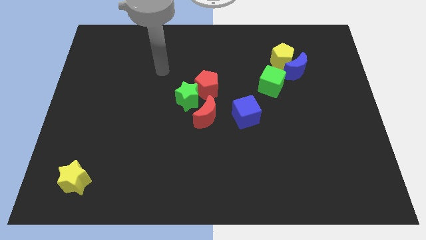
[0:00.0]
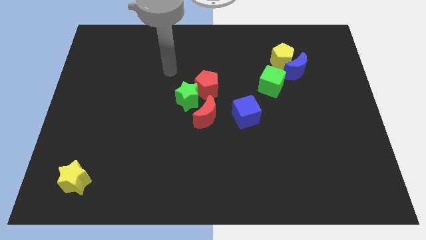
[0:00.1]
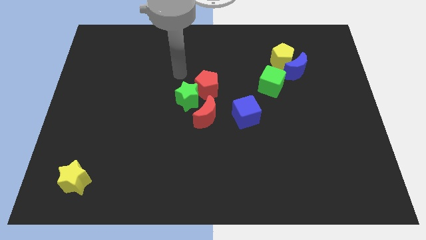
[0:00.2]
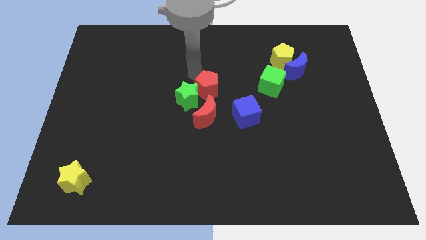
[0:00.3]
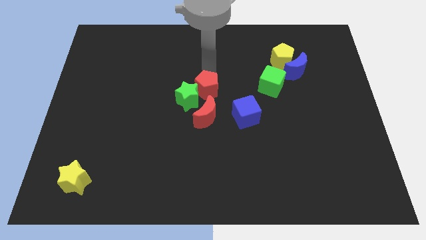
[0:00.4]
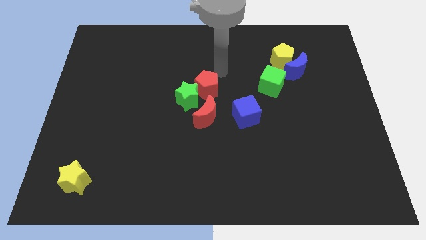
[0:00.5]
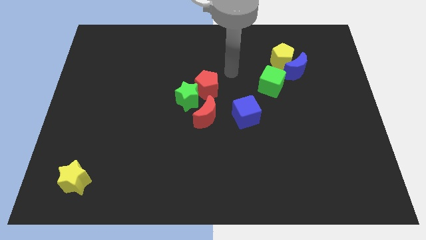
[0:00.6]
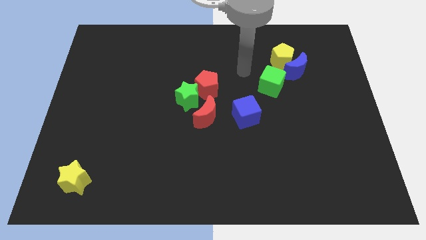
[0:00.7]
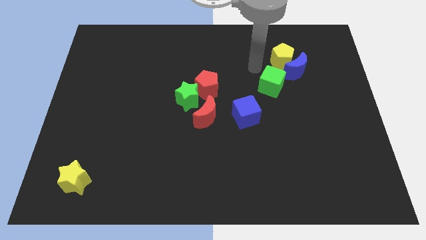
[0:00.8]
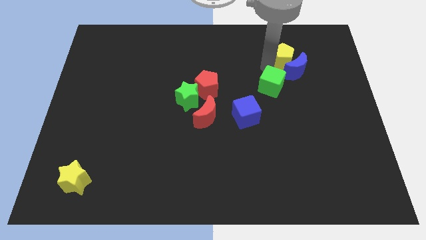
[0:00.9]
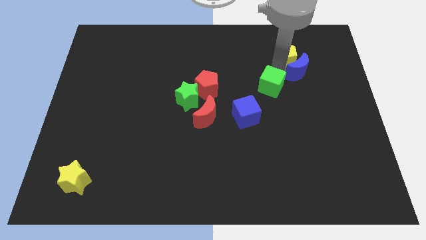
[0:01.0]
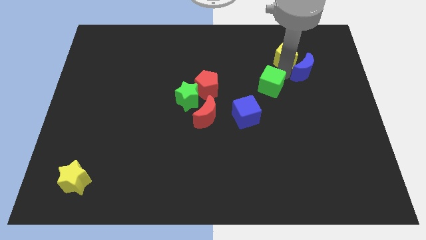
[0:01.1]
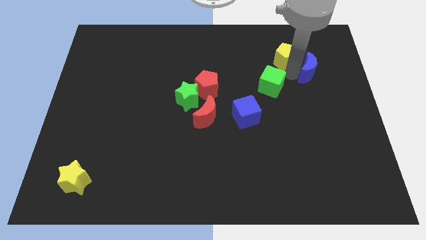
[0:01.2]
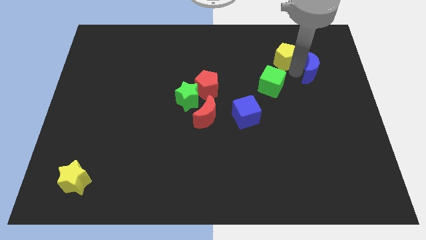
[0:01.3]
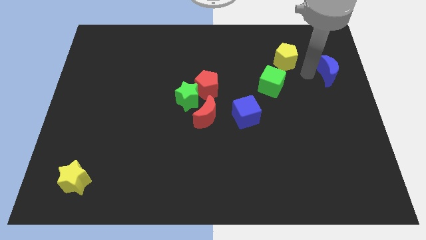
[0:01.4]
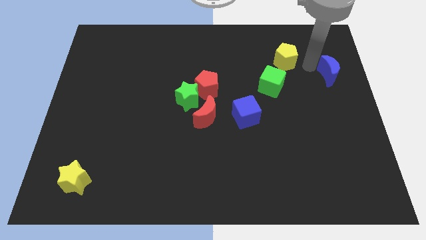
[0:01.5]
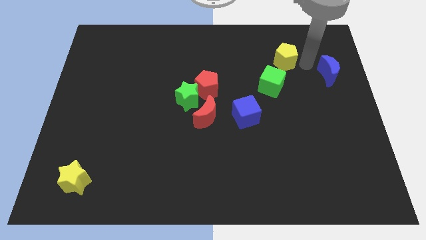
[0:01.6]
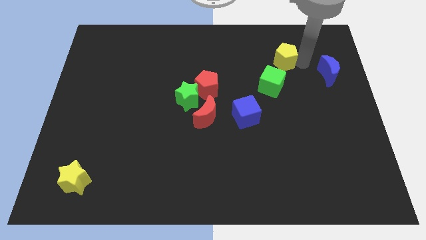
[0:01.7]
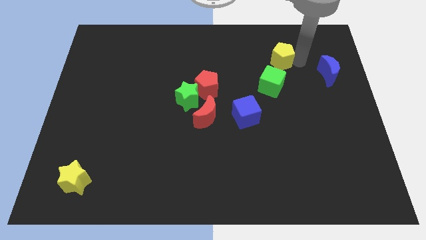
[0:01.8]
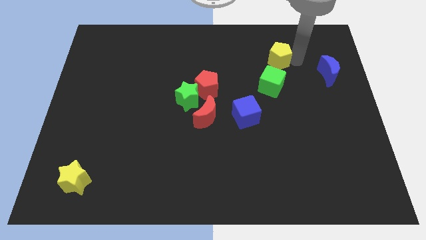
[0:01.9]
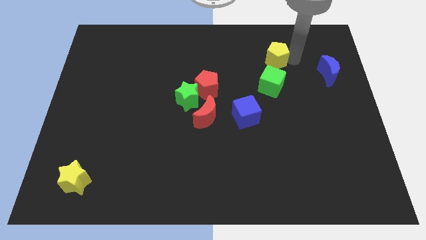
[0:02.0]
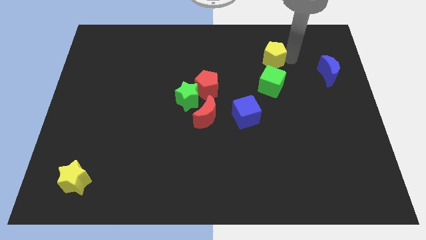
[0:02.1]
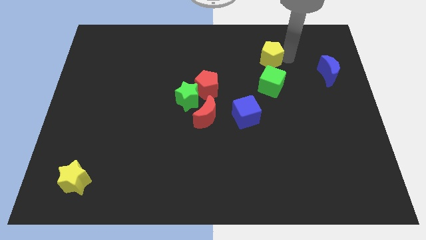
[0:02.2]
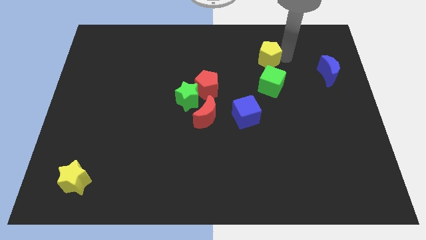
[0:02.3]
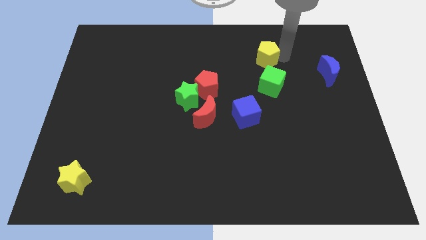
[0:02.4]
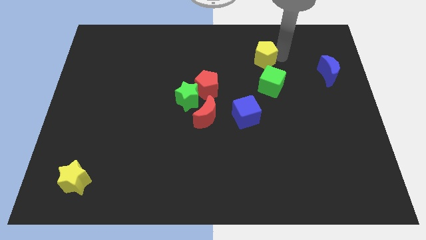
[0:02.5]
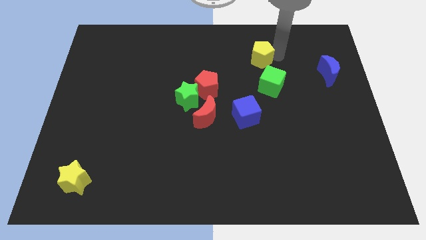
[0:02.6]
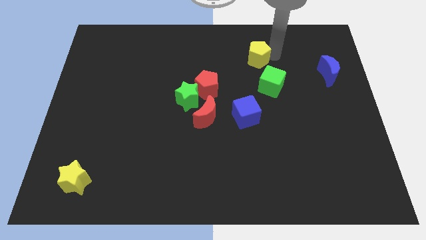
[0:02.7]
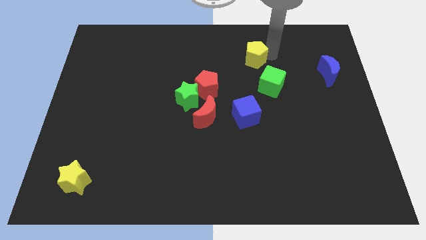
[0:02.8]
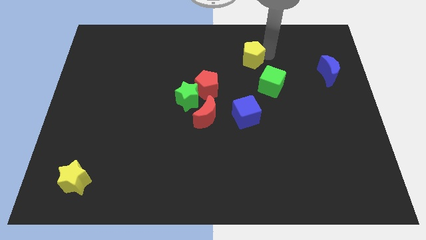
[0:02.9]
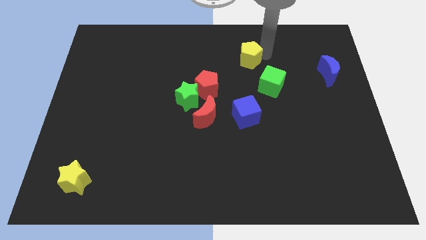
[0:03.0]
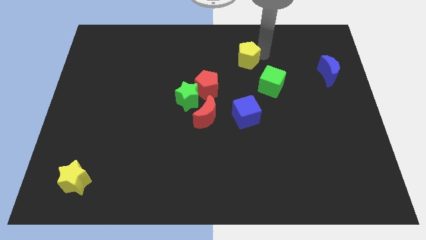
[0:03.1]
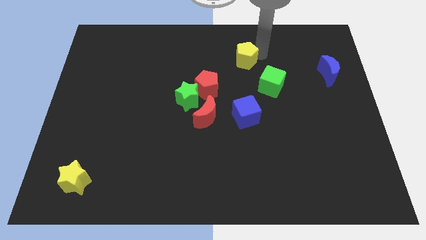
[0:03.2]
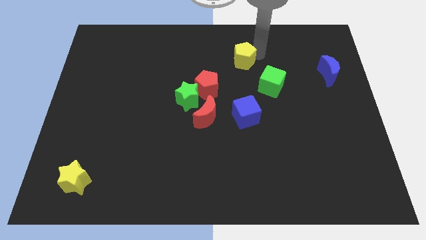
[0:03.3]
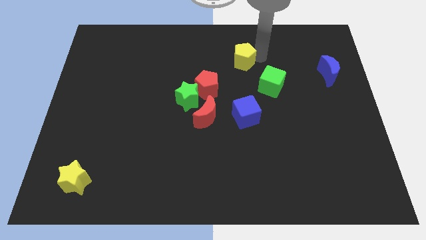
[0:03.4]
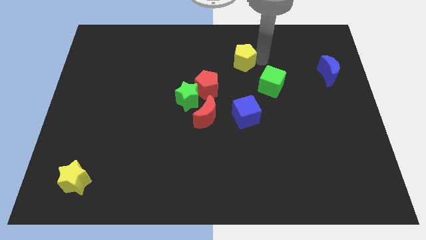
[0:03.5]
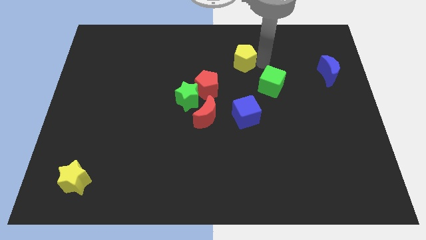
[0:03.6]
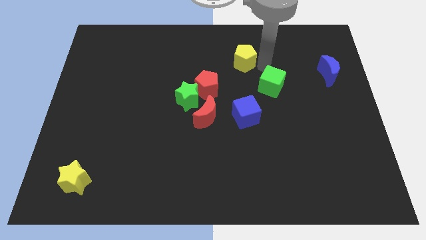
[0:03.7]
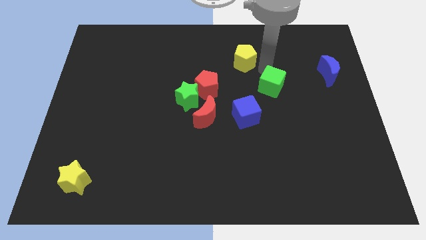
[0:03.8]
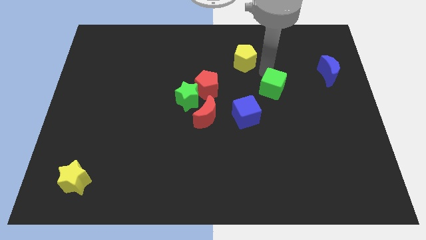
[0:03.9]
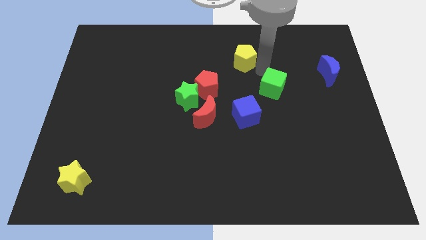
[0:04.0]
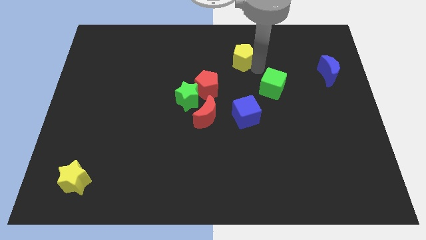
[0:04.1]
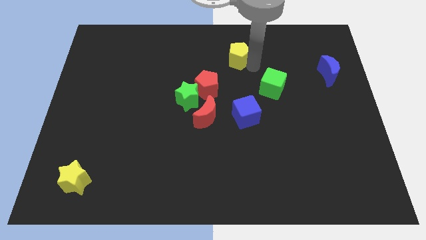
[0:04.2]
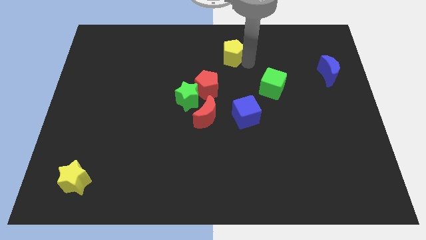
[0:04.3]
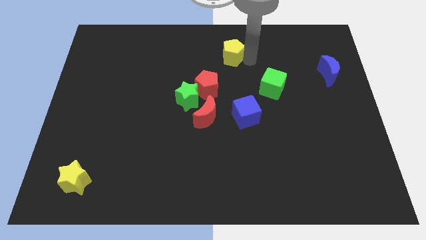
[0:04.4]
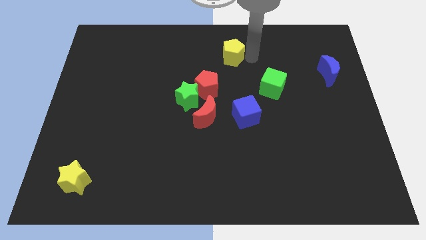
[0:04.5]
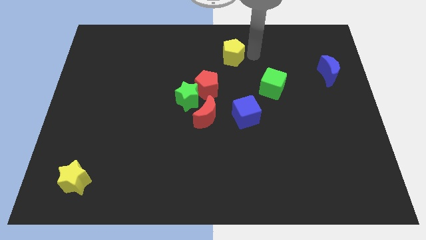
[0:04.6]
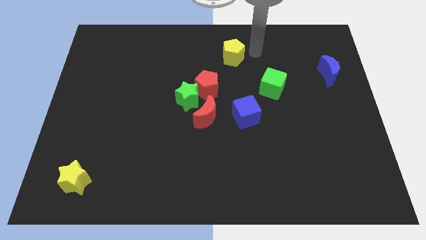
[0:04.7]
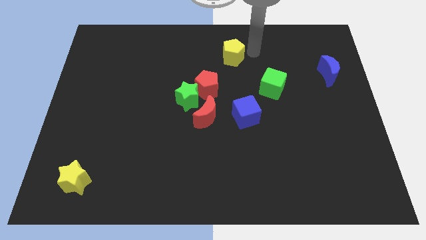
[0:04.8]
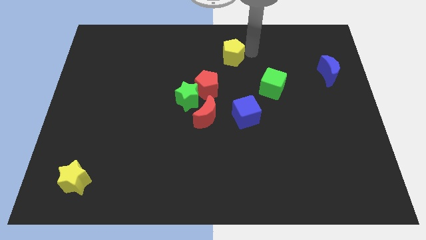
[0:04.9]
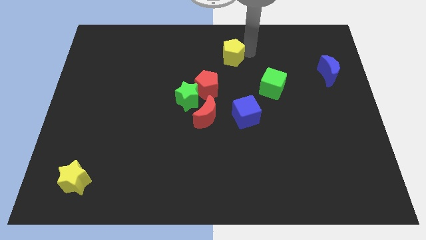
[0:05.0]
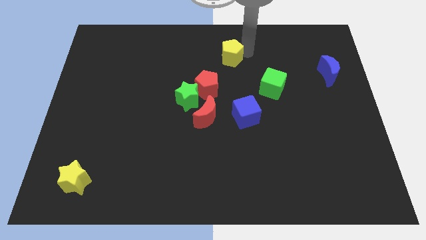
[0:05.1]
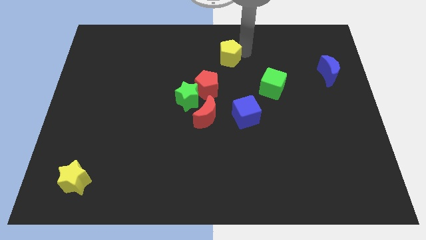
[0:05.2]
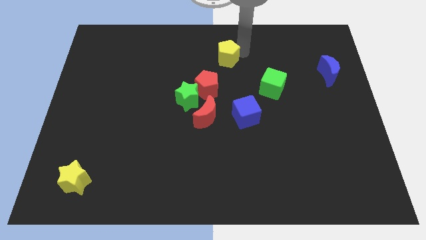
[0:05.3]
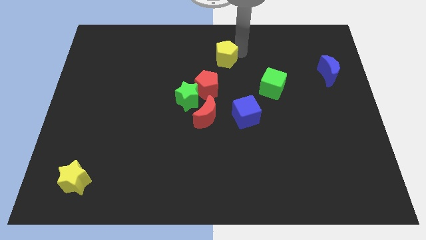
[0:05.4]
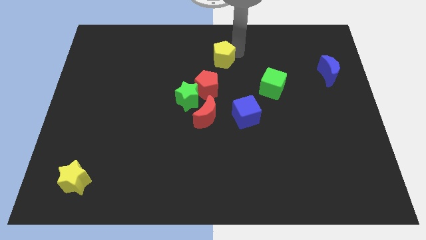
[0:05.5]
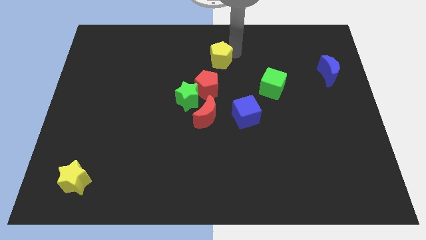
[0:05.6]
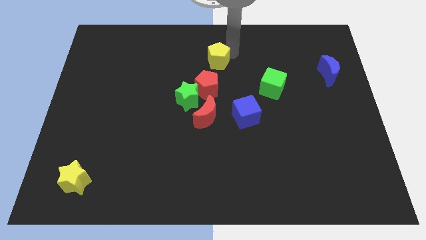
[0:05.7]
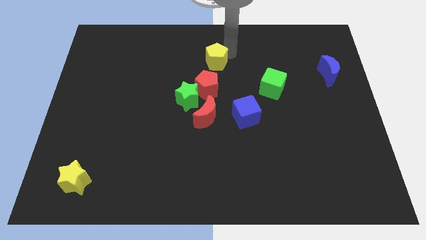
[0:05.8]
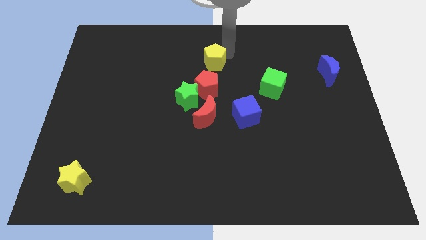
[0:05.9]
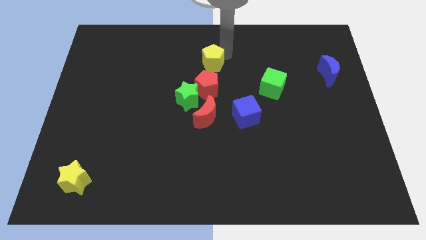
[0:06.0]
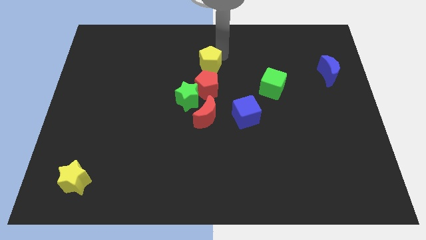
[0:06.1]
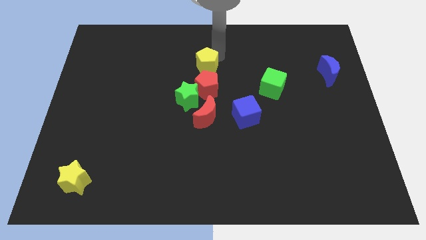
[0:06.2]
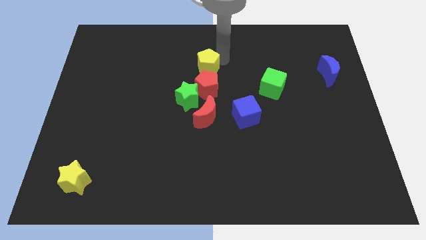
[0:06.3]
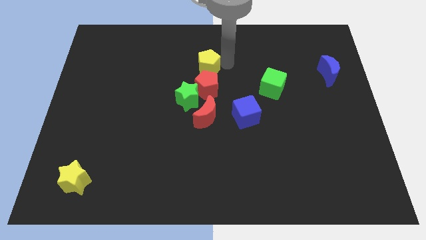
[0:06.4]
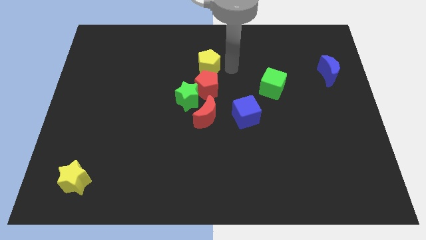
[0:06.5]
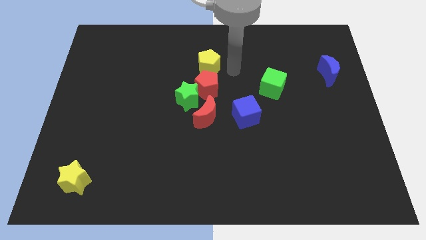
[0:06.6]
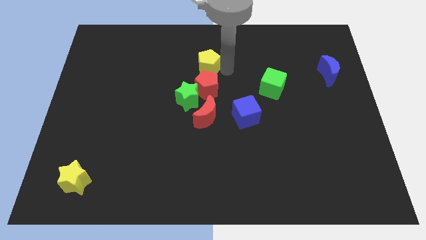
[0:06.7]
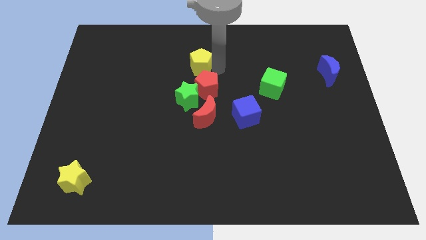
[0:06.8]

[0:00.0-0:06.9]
move the yellow pentagon left

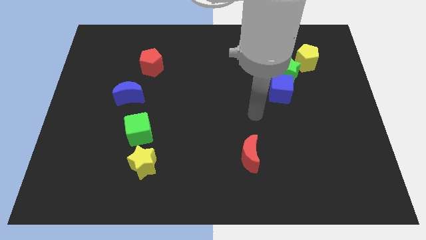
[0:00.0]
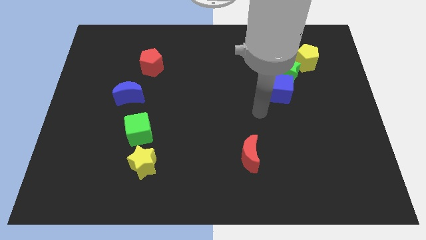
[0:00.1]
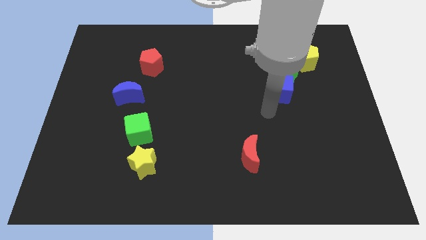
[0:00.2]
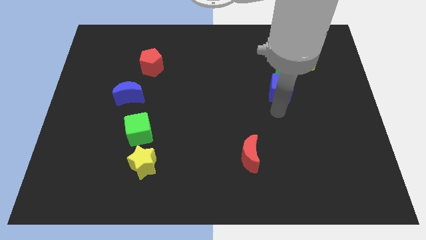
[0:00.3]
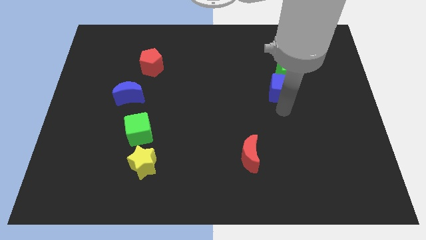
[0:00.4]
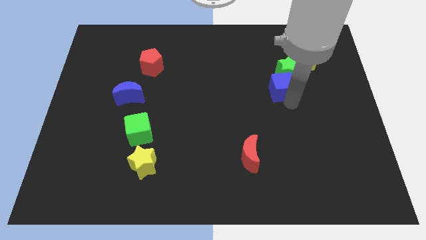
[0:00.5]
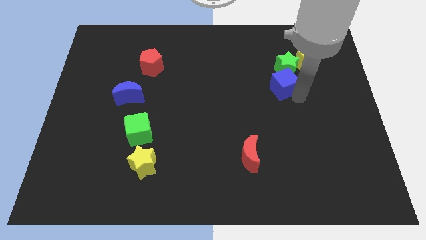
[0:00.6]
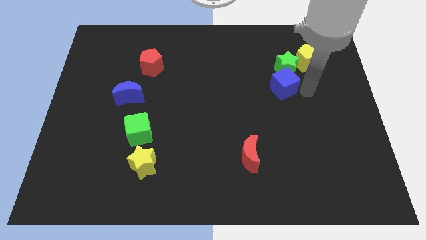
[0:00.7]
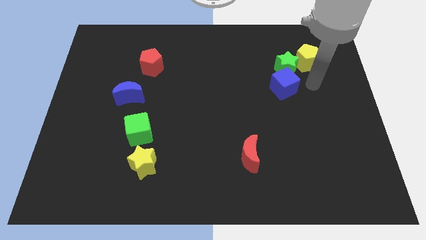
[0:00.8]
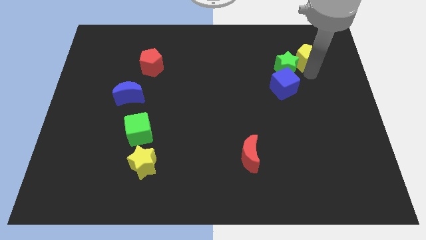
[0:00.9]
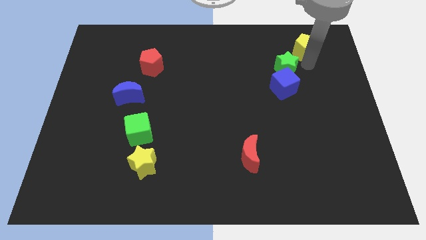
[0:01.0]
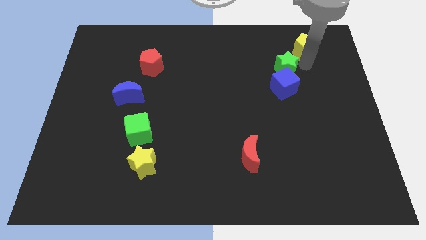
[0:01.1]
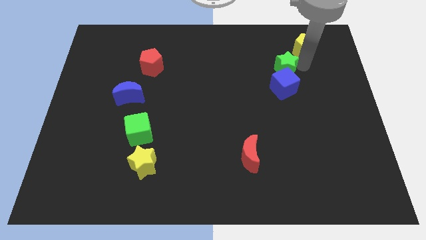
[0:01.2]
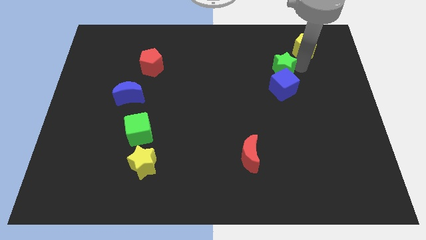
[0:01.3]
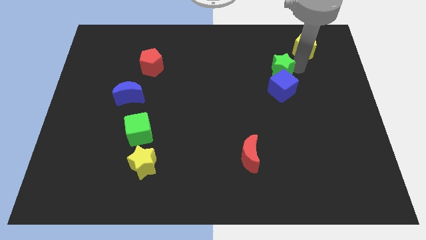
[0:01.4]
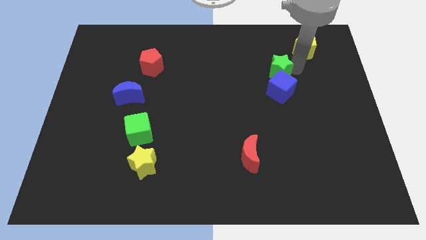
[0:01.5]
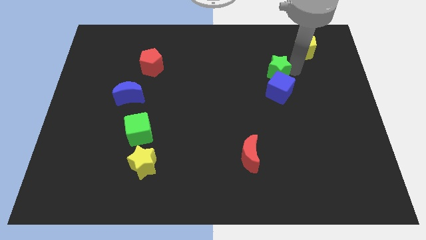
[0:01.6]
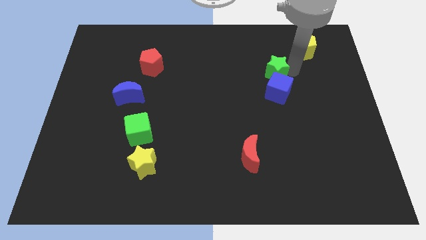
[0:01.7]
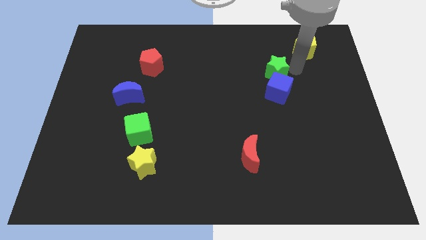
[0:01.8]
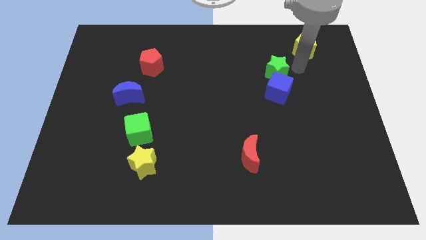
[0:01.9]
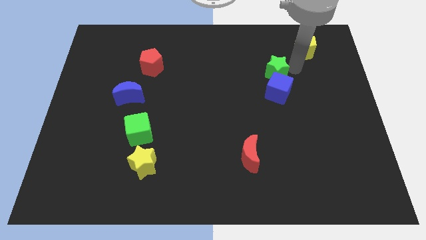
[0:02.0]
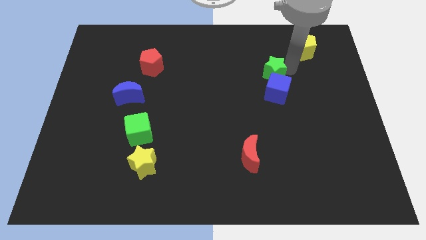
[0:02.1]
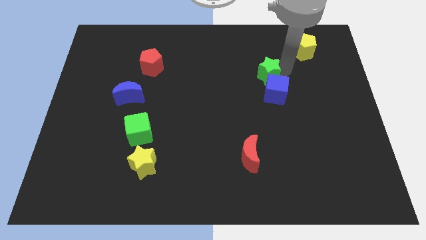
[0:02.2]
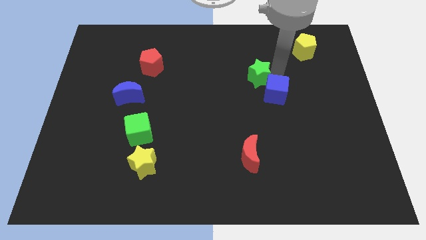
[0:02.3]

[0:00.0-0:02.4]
move the green star a little bit left
